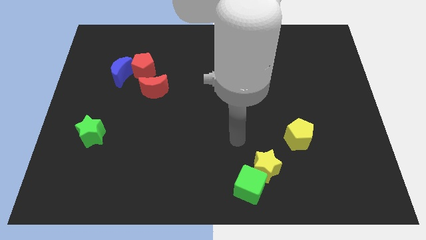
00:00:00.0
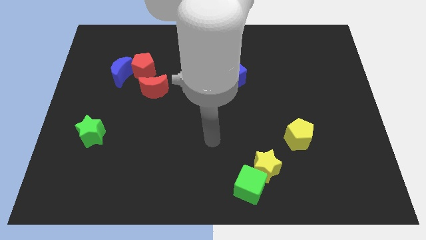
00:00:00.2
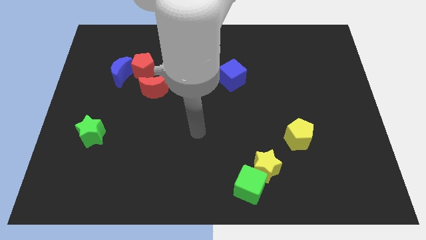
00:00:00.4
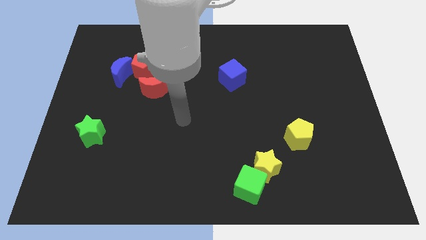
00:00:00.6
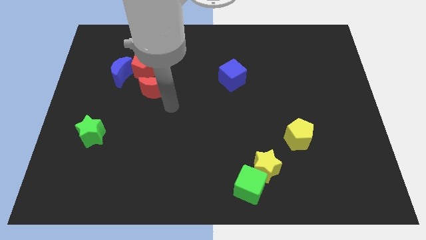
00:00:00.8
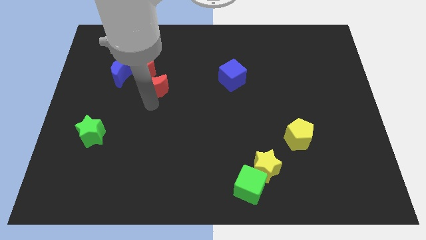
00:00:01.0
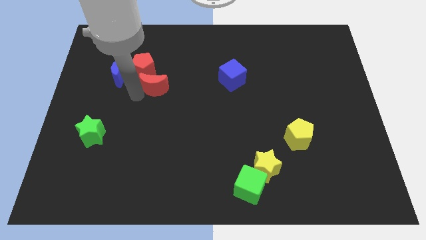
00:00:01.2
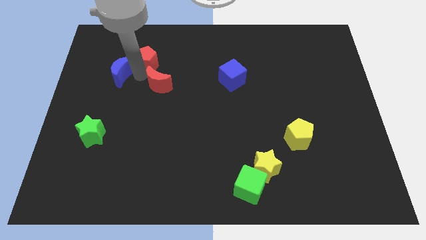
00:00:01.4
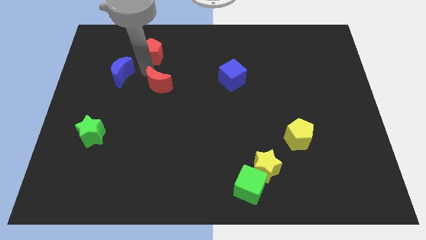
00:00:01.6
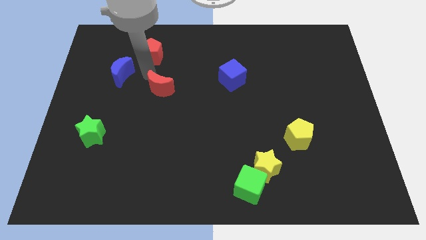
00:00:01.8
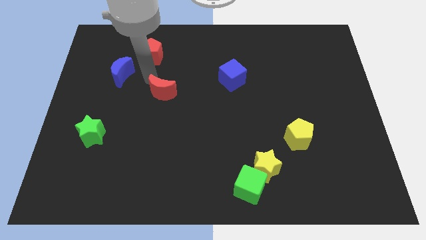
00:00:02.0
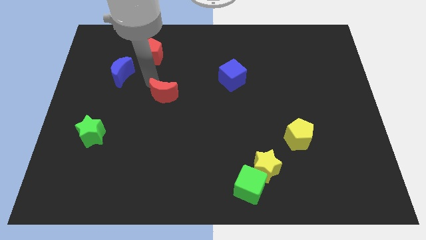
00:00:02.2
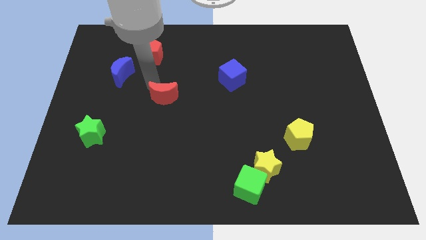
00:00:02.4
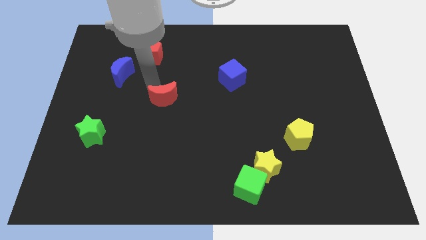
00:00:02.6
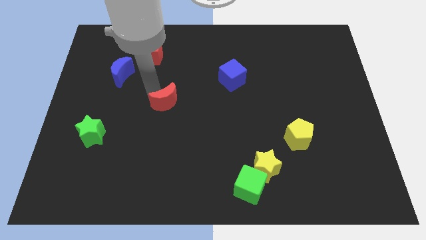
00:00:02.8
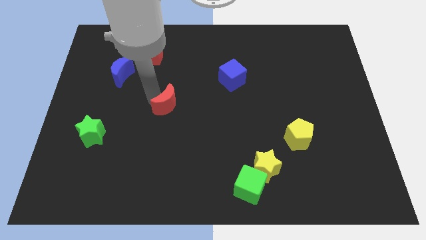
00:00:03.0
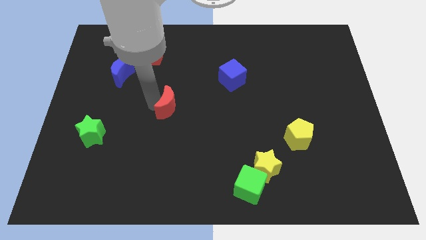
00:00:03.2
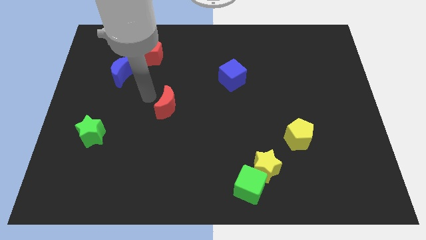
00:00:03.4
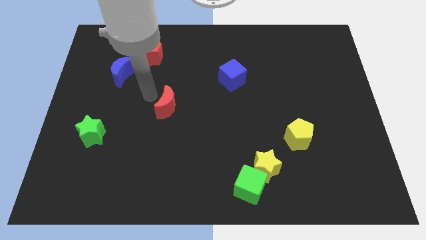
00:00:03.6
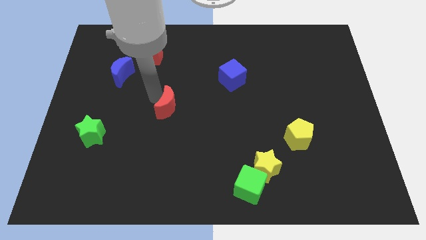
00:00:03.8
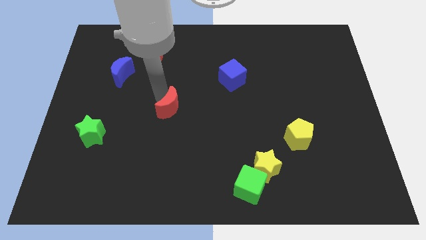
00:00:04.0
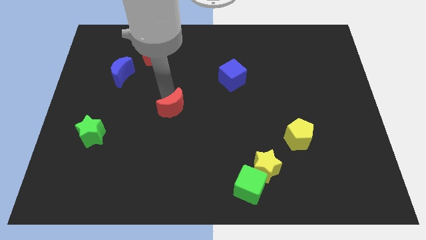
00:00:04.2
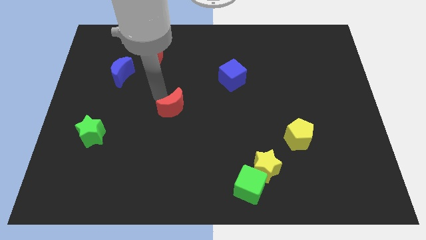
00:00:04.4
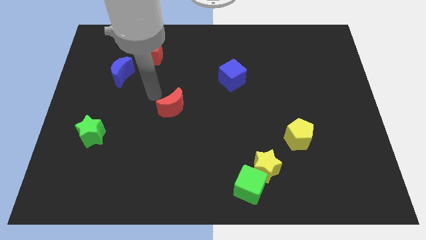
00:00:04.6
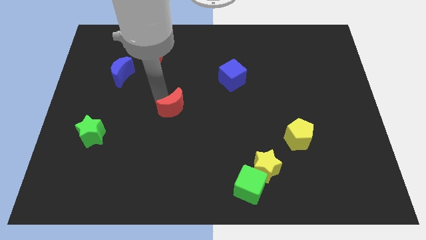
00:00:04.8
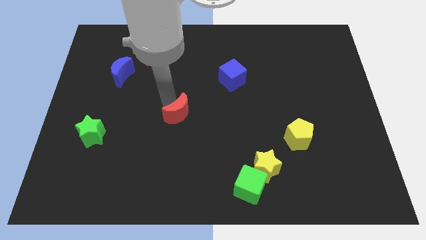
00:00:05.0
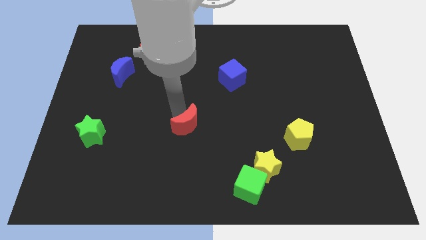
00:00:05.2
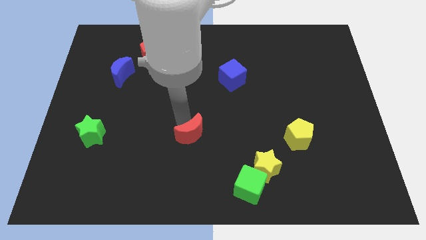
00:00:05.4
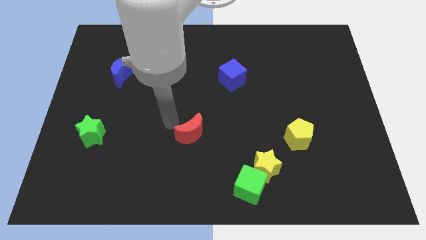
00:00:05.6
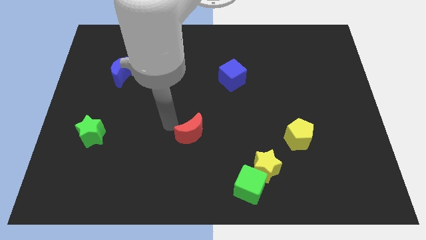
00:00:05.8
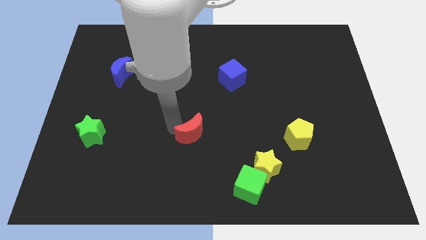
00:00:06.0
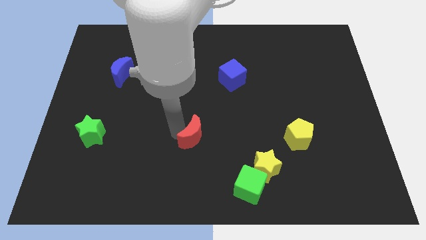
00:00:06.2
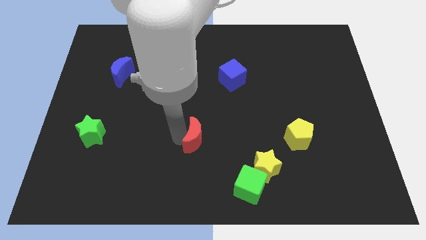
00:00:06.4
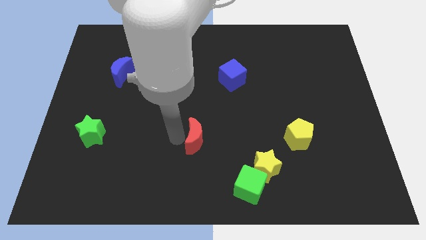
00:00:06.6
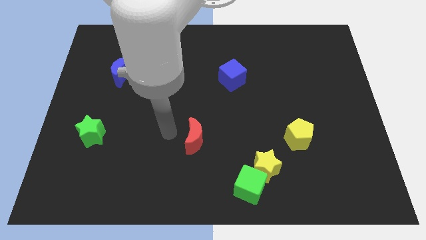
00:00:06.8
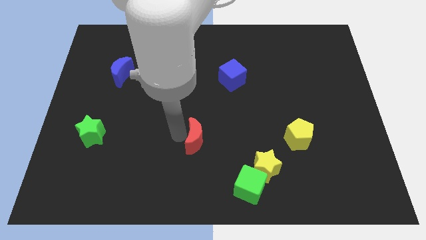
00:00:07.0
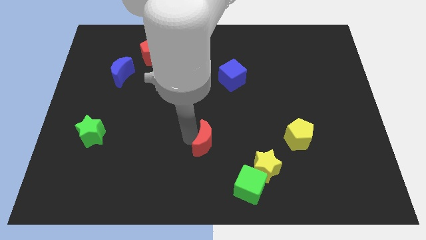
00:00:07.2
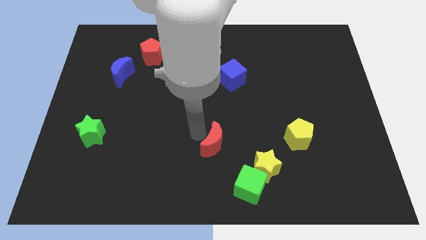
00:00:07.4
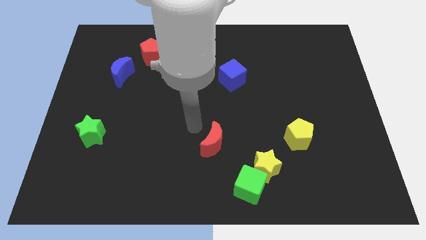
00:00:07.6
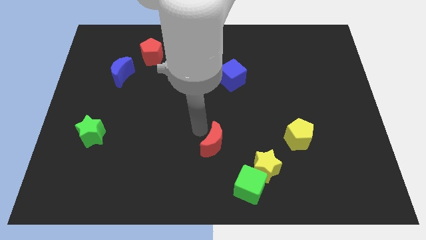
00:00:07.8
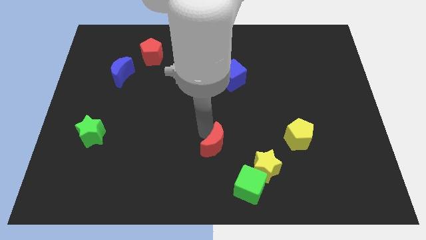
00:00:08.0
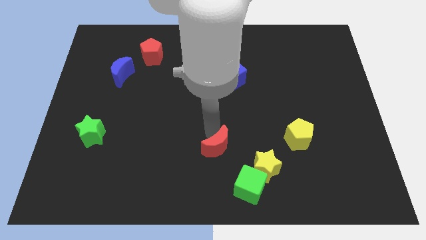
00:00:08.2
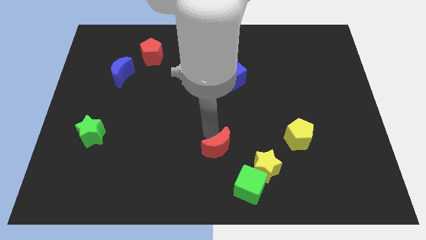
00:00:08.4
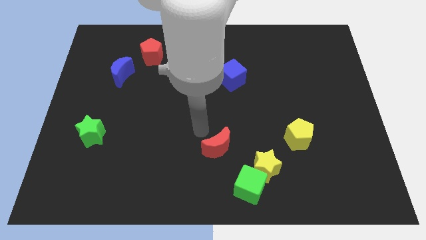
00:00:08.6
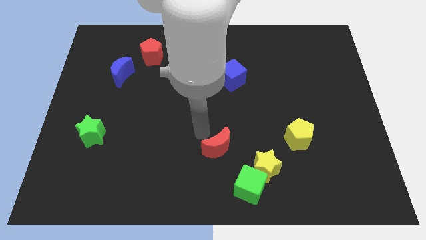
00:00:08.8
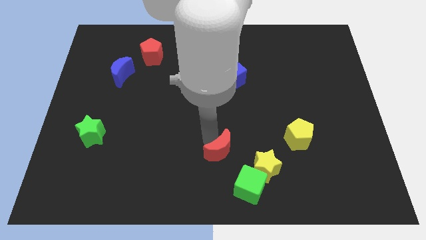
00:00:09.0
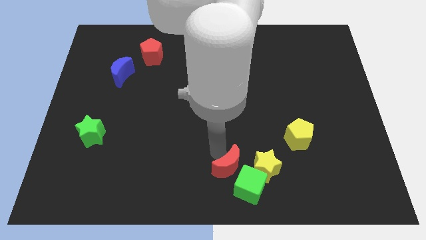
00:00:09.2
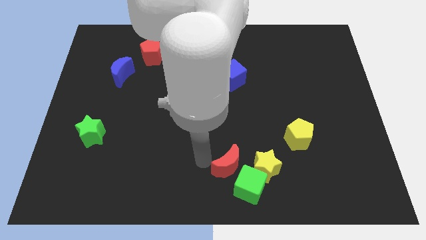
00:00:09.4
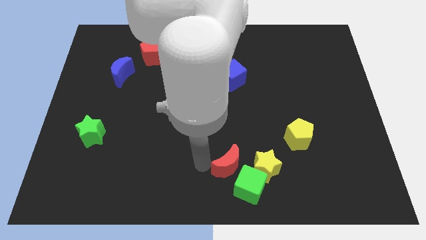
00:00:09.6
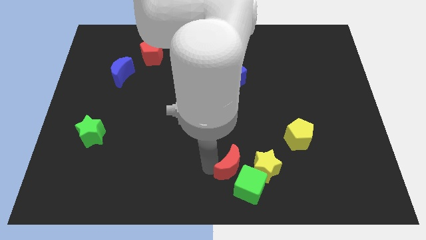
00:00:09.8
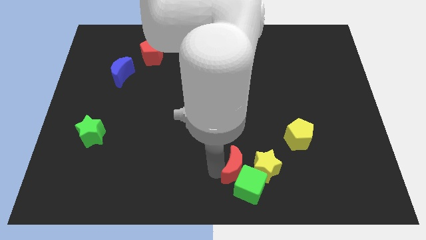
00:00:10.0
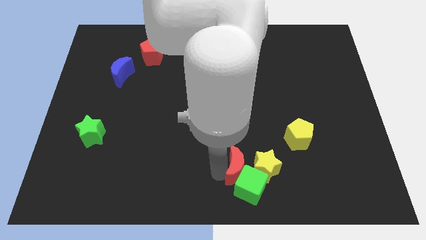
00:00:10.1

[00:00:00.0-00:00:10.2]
push the red moon close to the yellow star

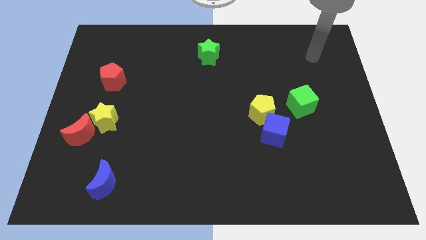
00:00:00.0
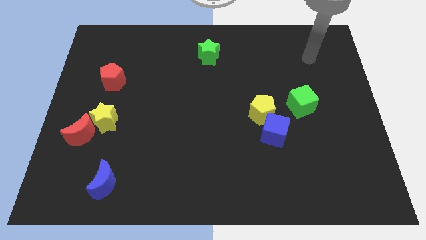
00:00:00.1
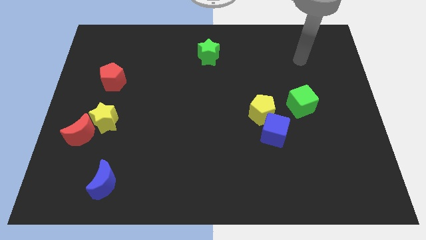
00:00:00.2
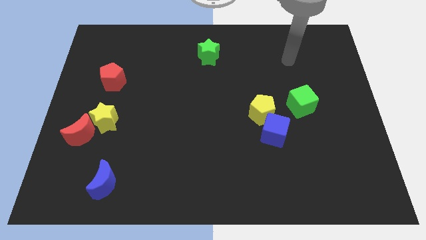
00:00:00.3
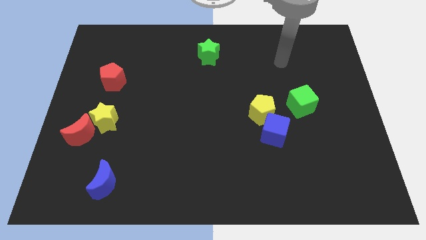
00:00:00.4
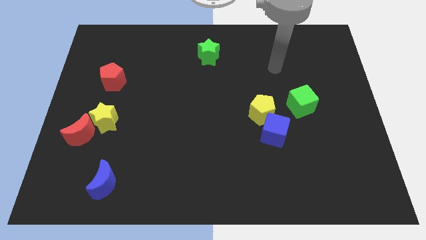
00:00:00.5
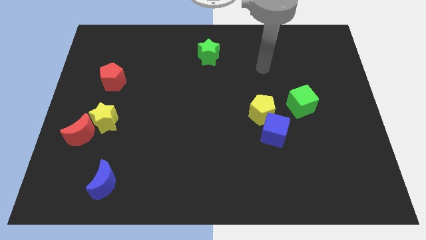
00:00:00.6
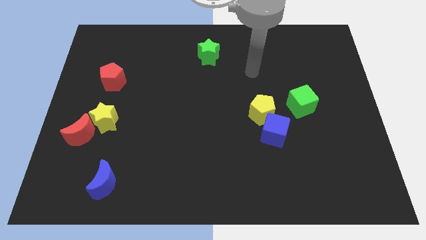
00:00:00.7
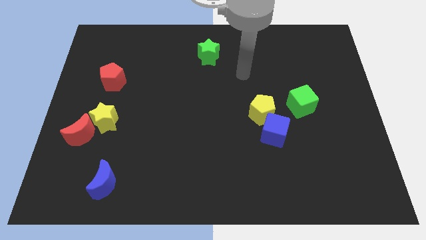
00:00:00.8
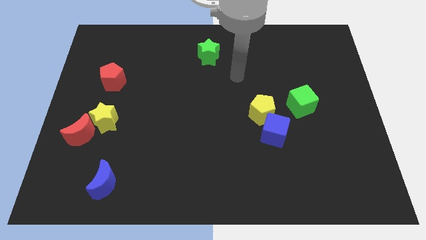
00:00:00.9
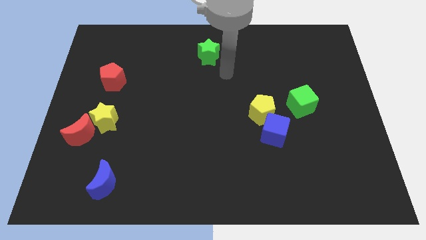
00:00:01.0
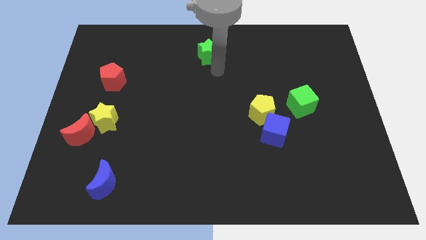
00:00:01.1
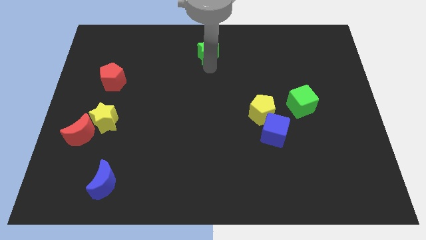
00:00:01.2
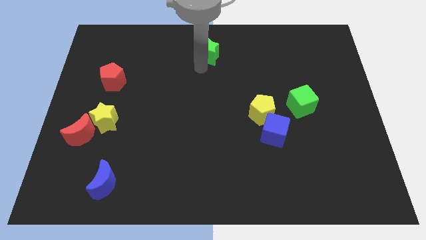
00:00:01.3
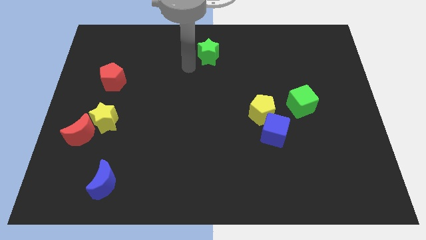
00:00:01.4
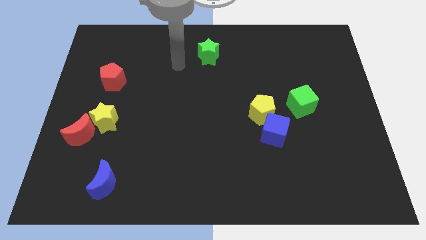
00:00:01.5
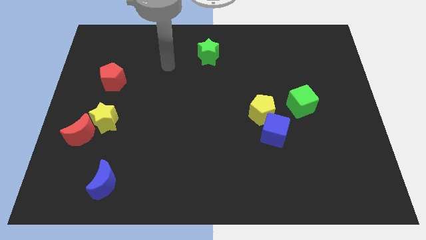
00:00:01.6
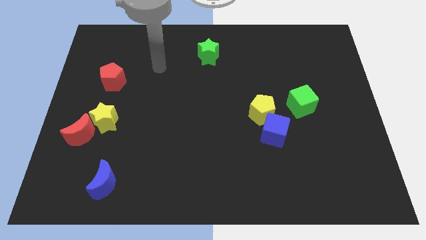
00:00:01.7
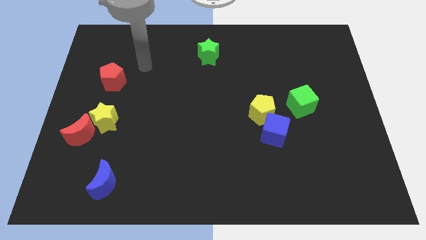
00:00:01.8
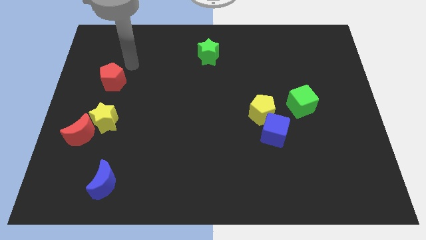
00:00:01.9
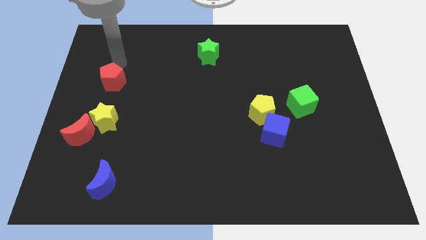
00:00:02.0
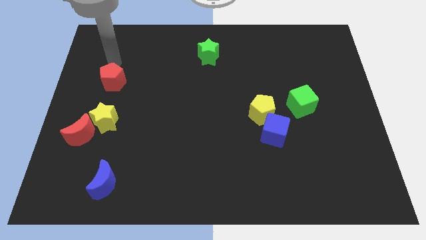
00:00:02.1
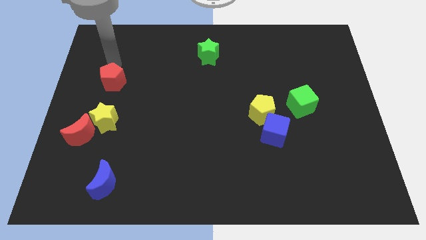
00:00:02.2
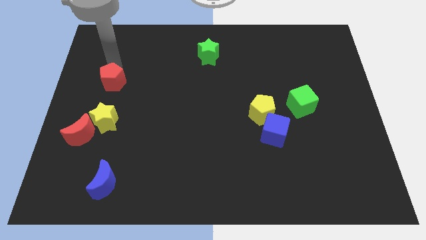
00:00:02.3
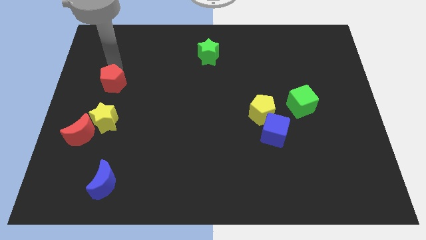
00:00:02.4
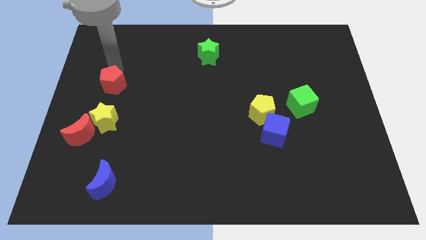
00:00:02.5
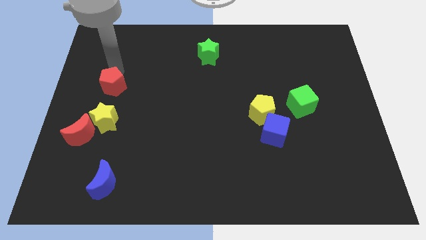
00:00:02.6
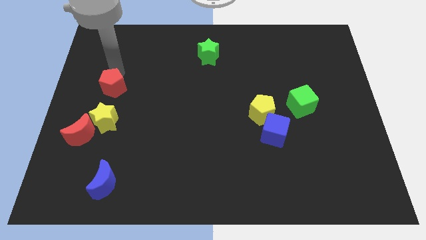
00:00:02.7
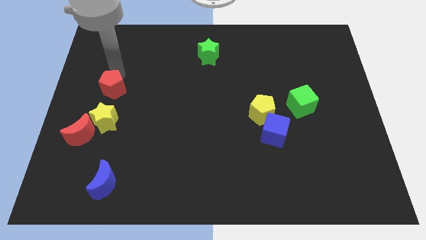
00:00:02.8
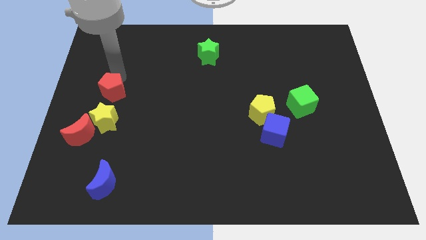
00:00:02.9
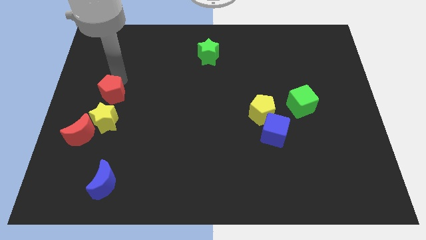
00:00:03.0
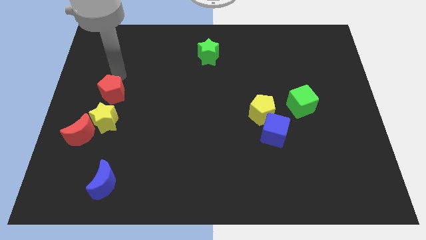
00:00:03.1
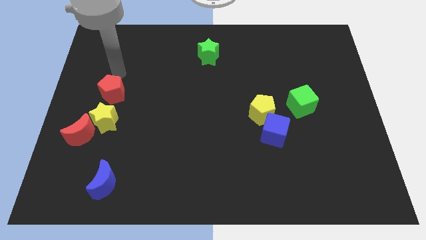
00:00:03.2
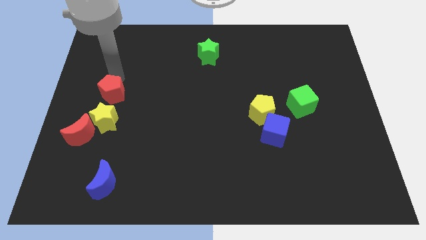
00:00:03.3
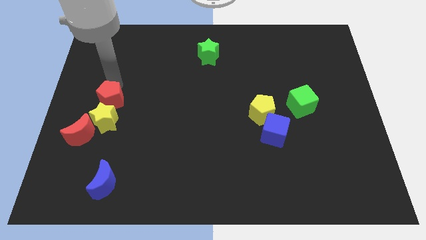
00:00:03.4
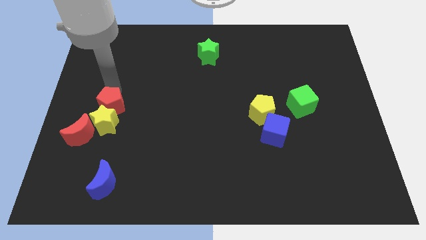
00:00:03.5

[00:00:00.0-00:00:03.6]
push the red pentagon to the yellow star
